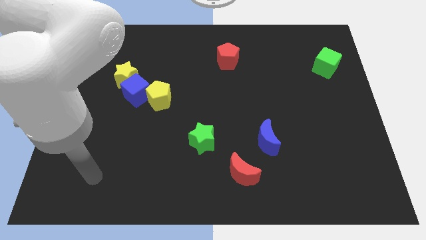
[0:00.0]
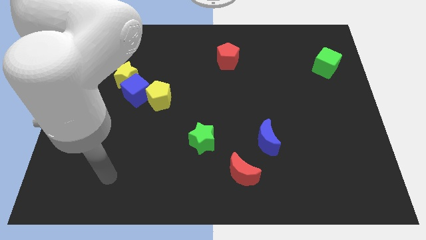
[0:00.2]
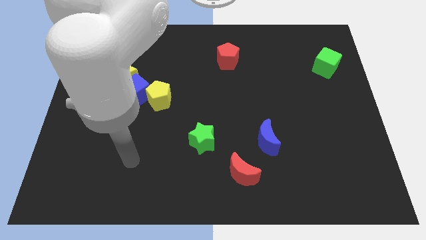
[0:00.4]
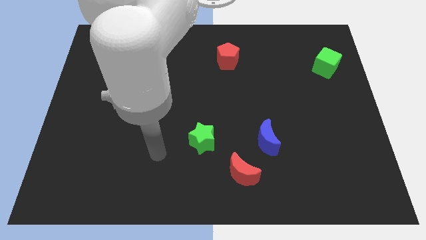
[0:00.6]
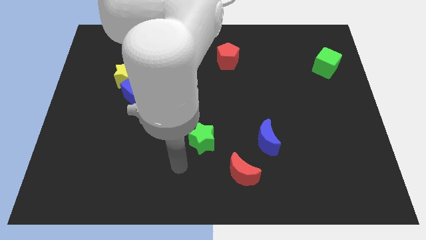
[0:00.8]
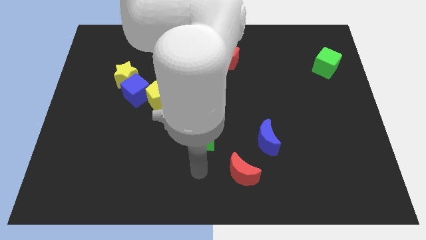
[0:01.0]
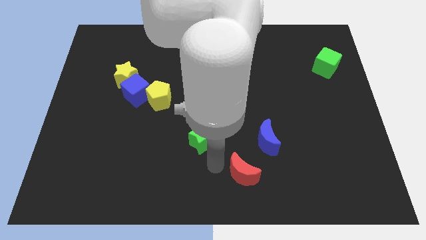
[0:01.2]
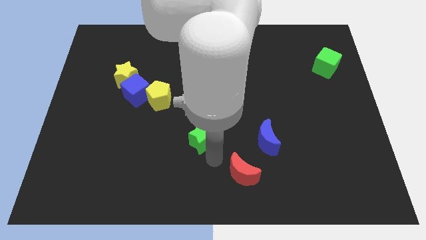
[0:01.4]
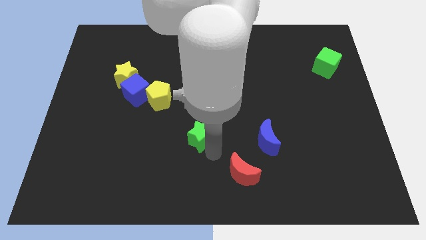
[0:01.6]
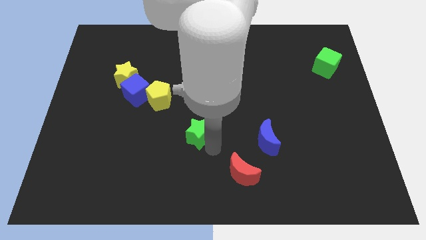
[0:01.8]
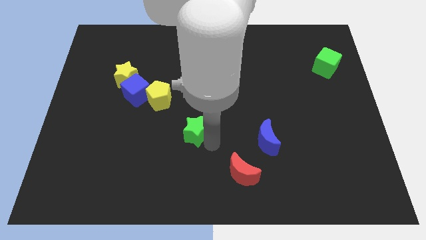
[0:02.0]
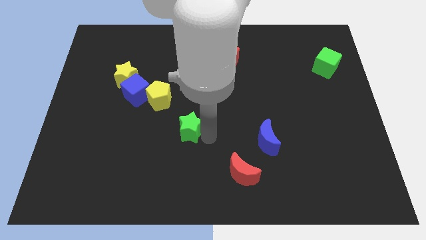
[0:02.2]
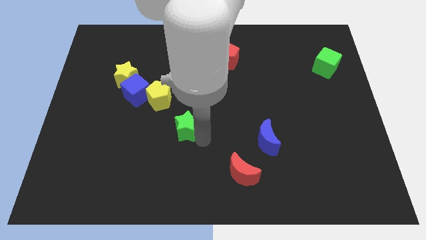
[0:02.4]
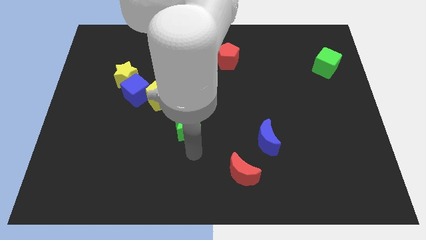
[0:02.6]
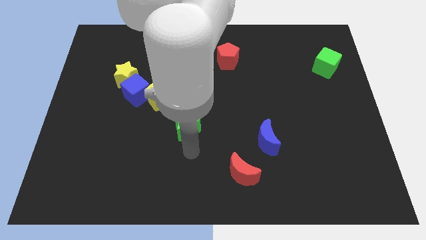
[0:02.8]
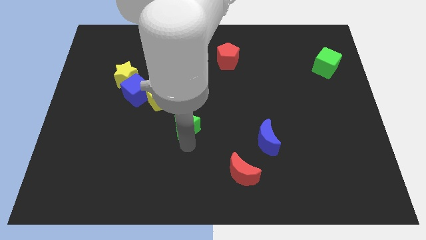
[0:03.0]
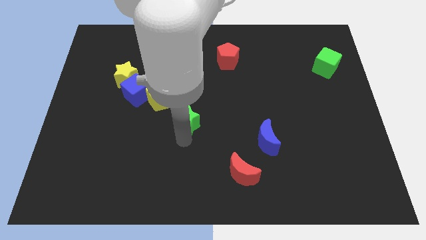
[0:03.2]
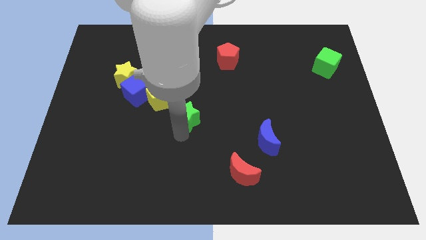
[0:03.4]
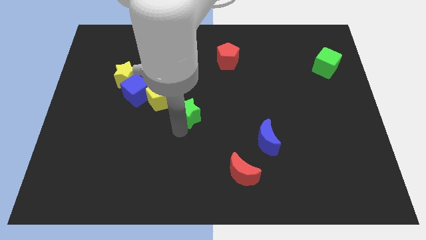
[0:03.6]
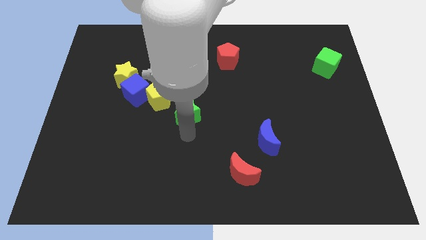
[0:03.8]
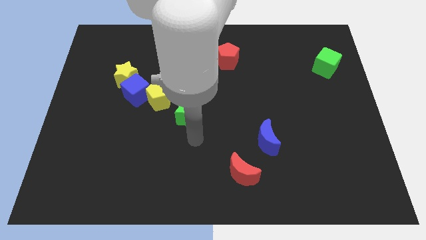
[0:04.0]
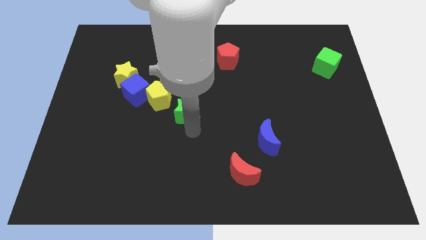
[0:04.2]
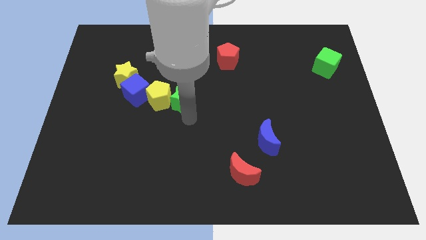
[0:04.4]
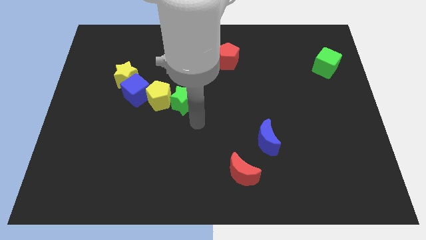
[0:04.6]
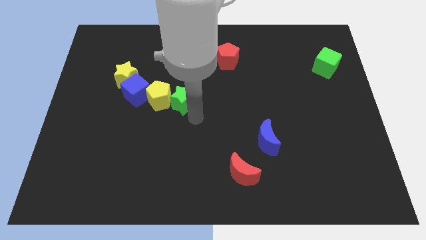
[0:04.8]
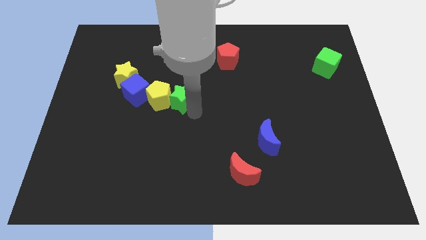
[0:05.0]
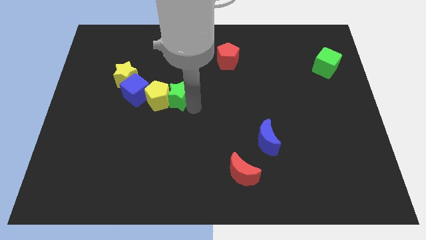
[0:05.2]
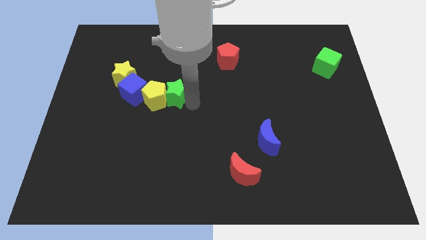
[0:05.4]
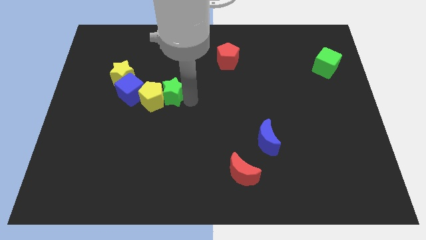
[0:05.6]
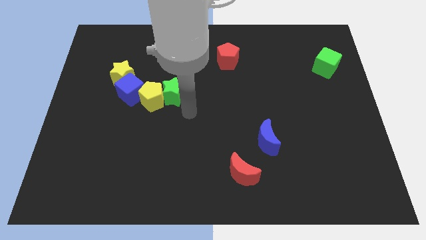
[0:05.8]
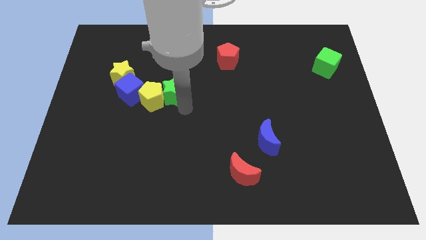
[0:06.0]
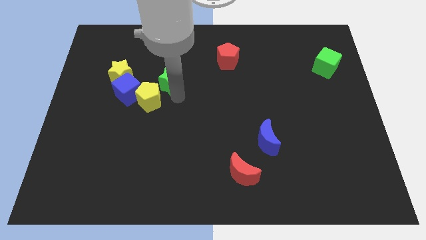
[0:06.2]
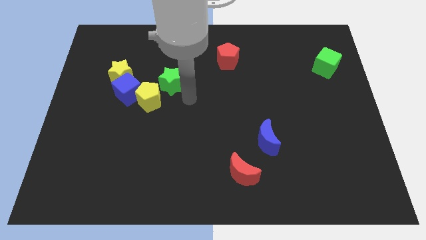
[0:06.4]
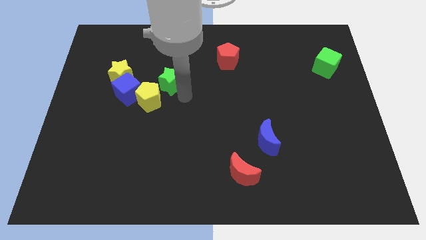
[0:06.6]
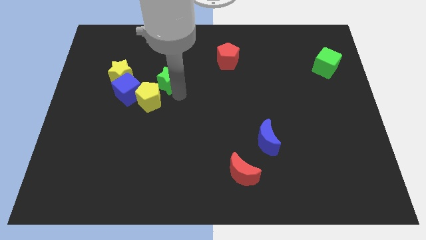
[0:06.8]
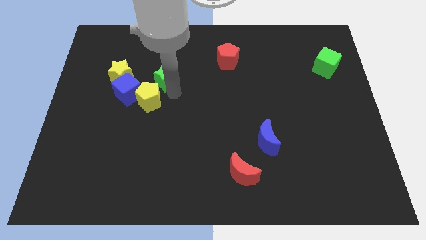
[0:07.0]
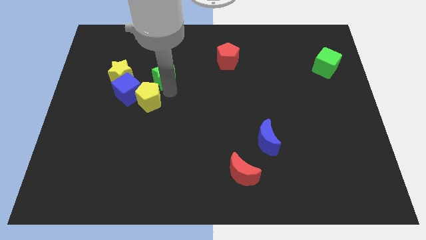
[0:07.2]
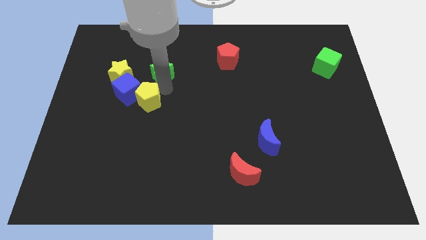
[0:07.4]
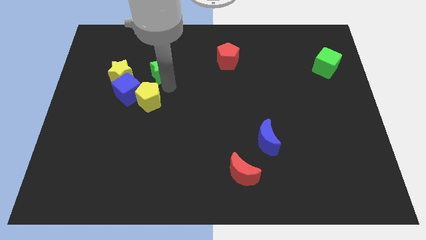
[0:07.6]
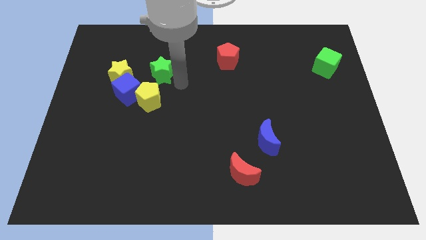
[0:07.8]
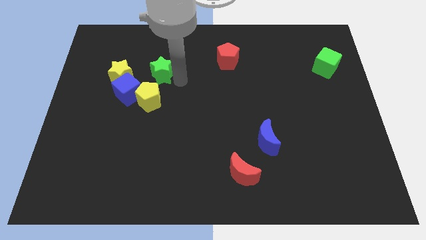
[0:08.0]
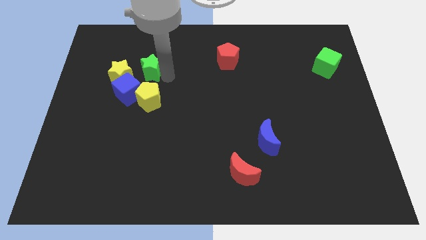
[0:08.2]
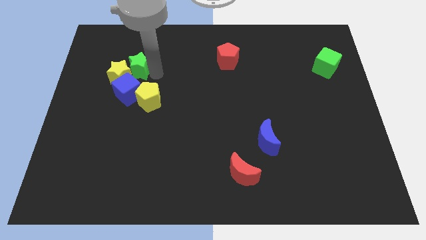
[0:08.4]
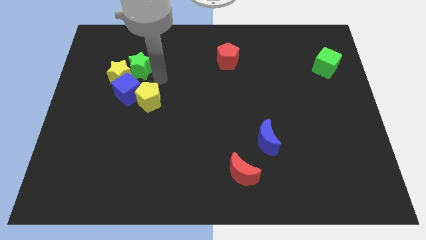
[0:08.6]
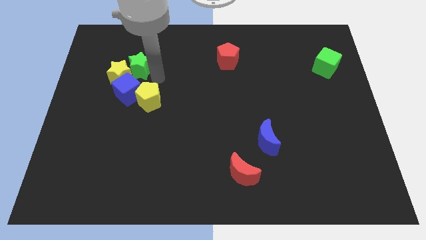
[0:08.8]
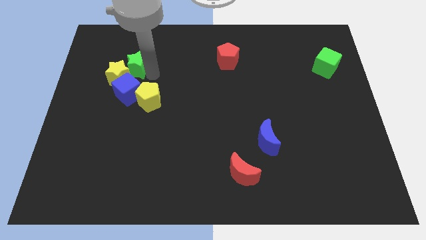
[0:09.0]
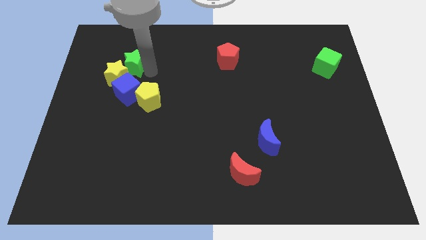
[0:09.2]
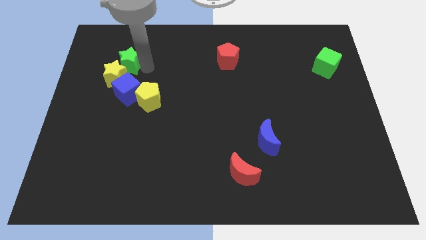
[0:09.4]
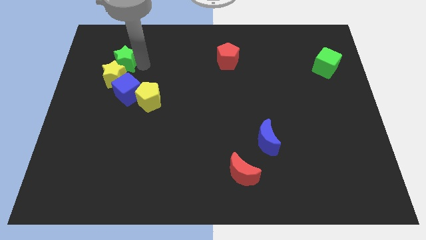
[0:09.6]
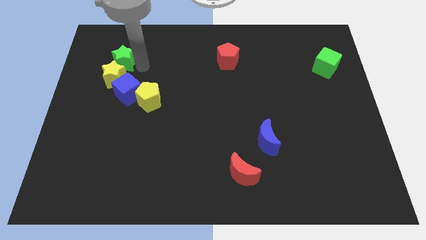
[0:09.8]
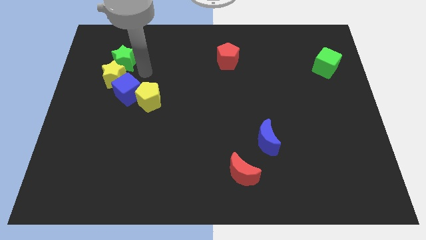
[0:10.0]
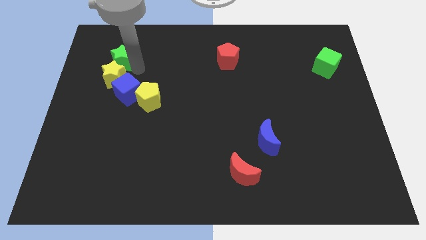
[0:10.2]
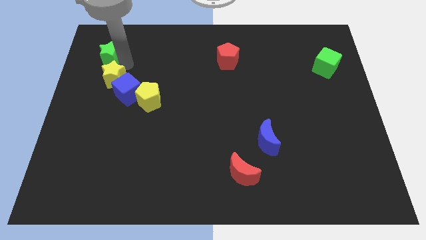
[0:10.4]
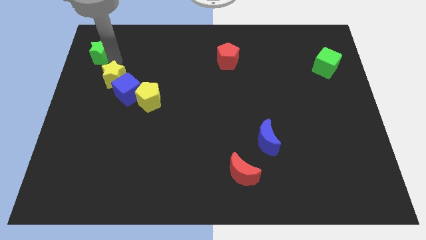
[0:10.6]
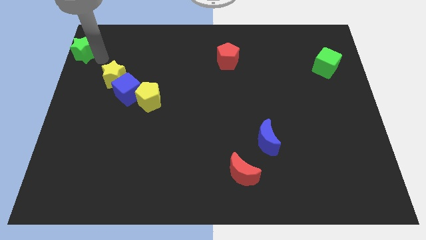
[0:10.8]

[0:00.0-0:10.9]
move the green star to the upper left corner

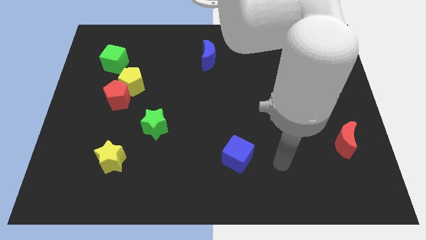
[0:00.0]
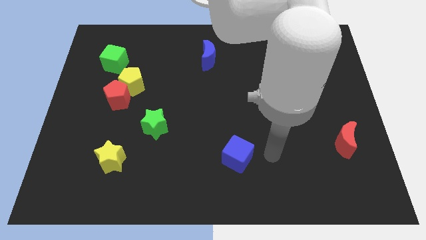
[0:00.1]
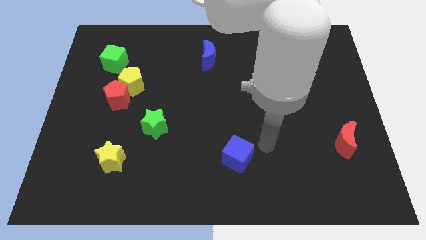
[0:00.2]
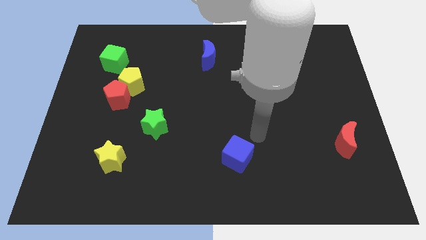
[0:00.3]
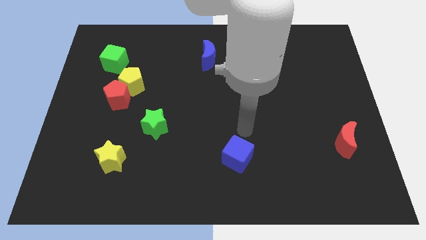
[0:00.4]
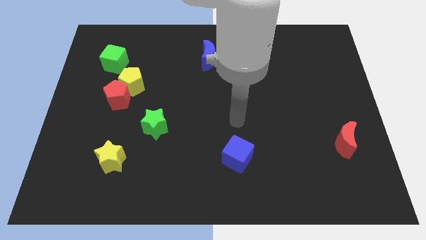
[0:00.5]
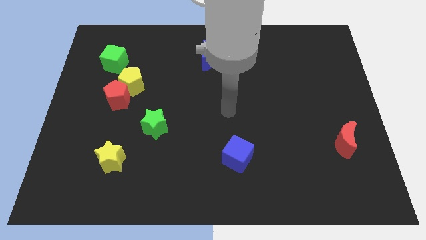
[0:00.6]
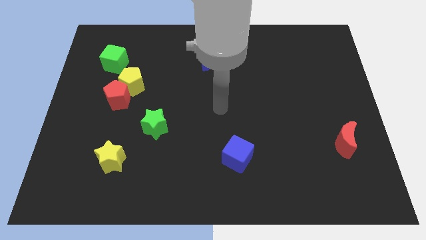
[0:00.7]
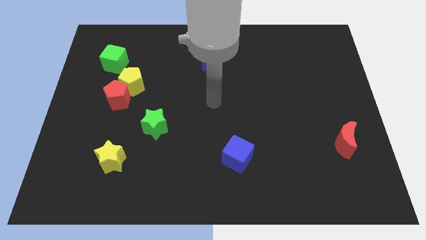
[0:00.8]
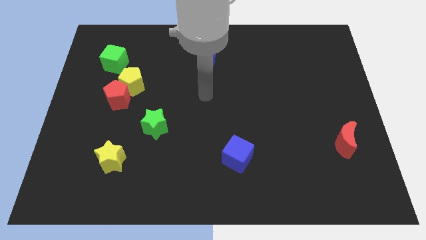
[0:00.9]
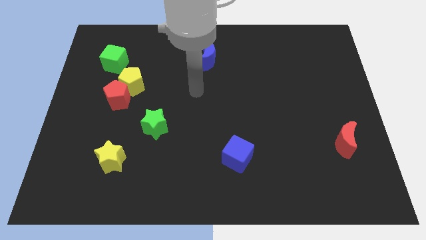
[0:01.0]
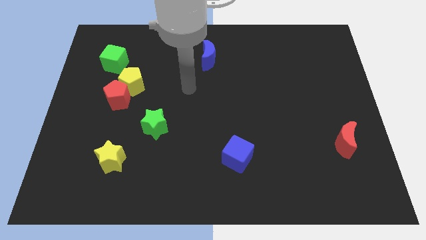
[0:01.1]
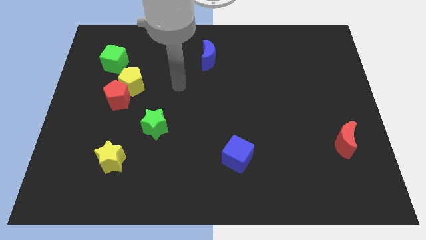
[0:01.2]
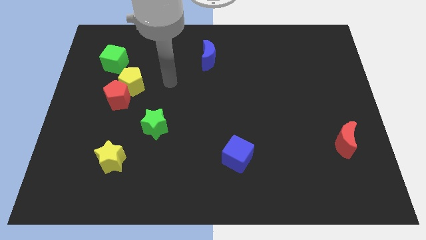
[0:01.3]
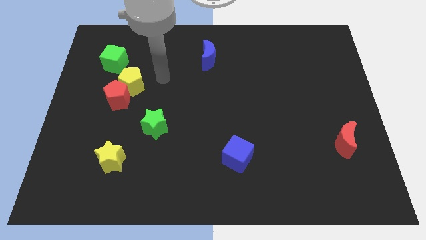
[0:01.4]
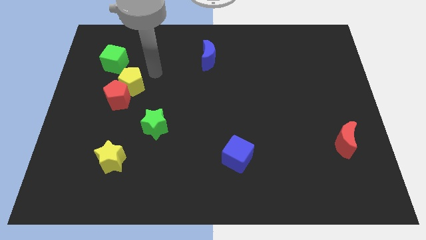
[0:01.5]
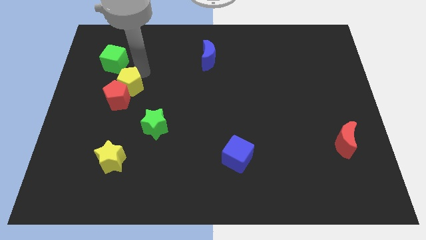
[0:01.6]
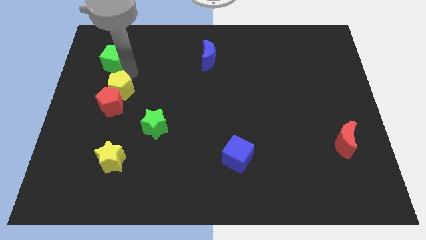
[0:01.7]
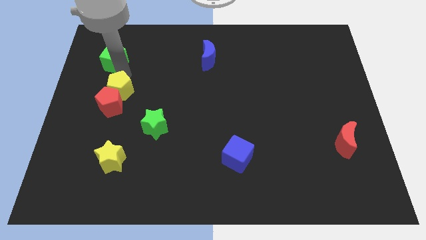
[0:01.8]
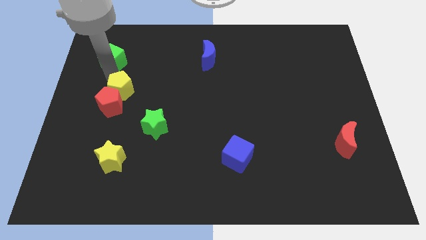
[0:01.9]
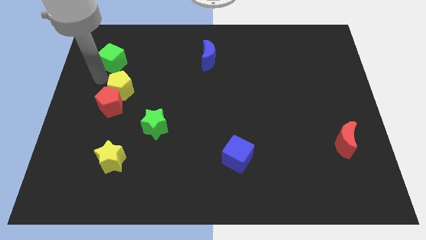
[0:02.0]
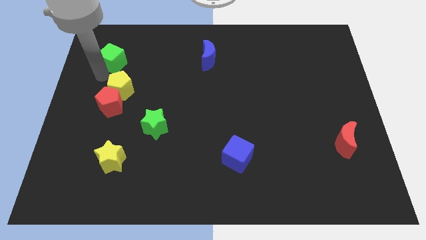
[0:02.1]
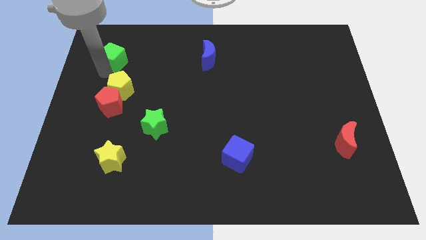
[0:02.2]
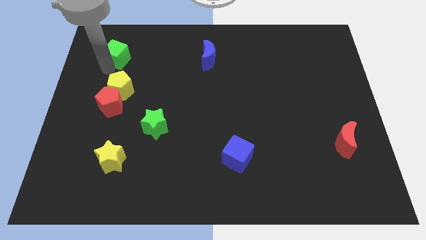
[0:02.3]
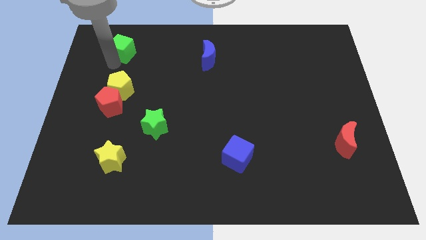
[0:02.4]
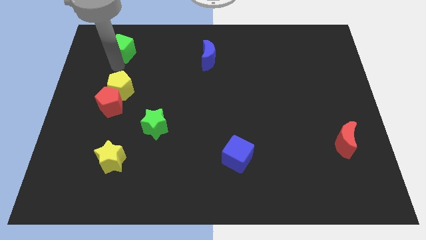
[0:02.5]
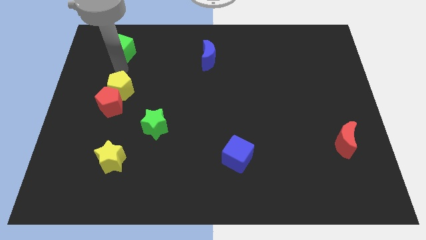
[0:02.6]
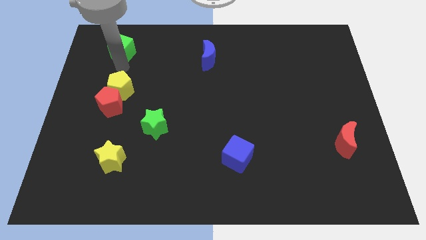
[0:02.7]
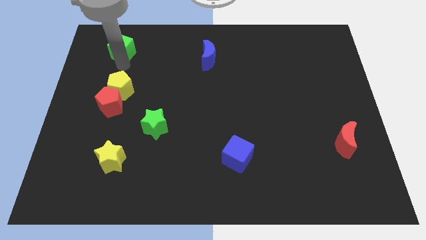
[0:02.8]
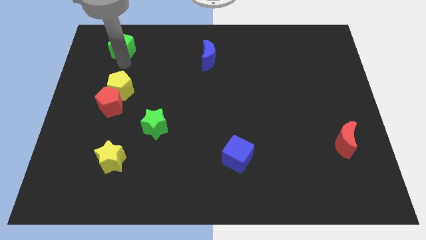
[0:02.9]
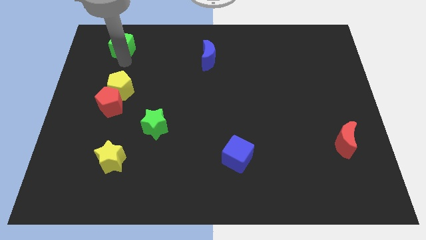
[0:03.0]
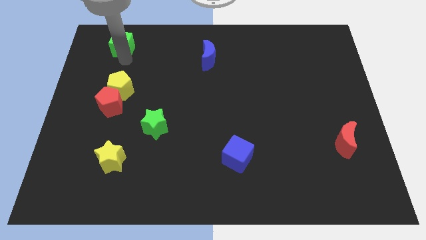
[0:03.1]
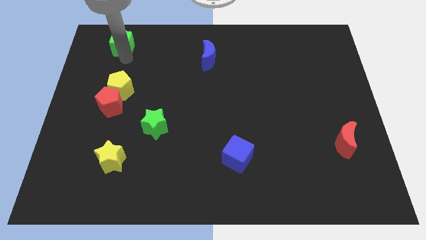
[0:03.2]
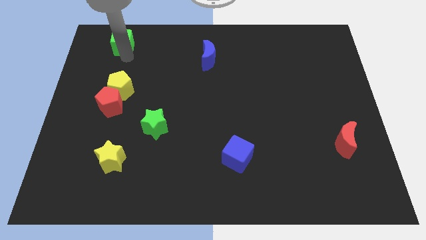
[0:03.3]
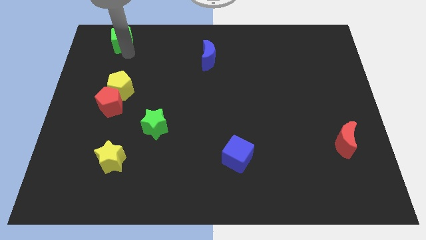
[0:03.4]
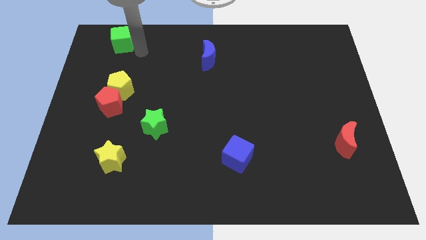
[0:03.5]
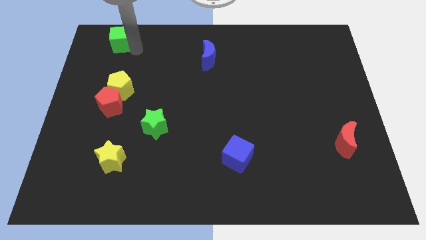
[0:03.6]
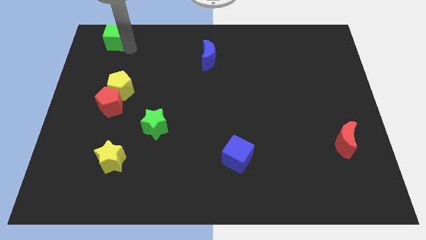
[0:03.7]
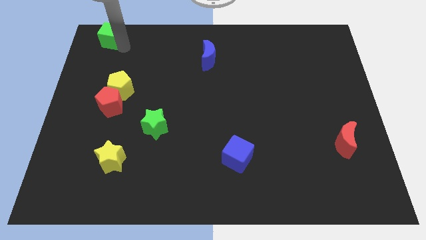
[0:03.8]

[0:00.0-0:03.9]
slide the green cube to the top left of the board
